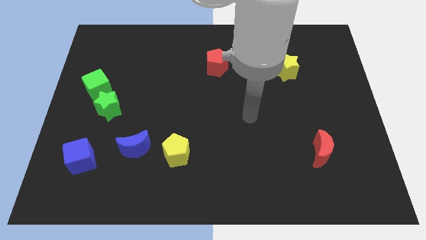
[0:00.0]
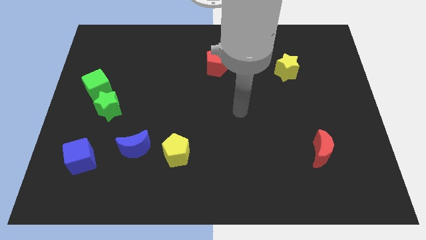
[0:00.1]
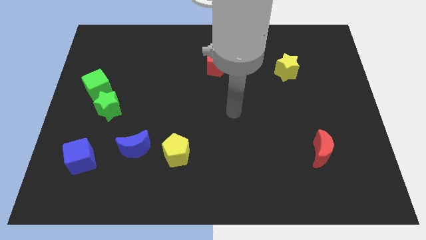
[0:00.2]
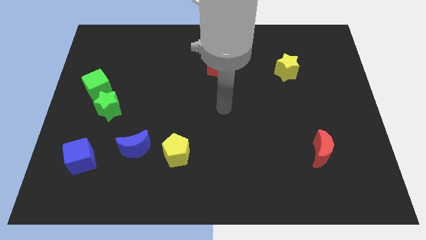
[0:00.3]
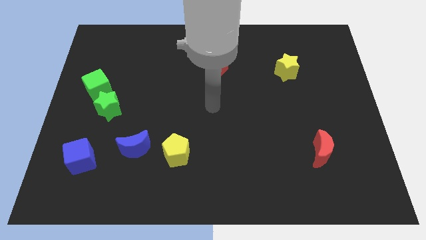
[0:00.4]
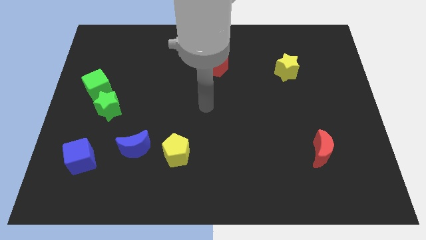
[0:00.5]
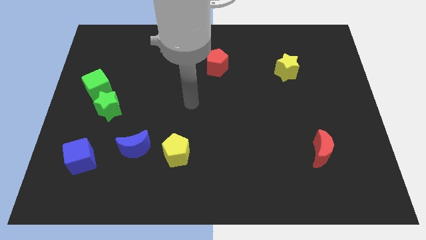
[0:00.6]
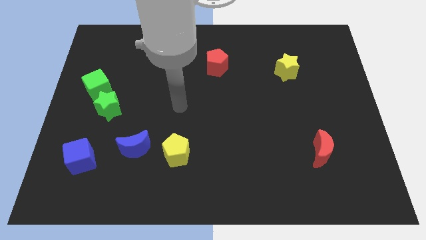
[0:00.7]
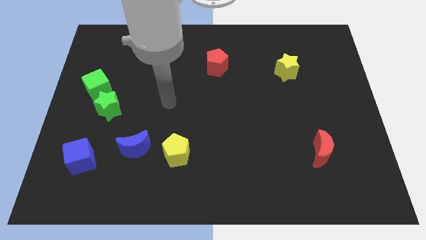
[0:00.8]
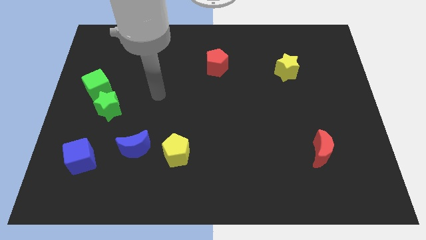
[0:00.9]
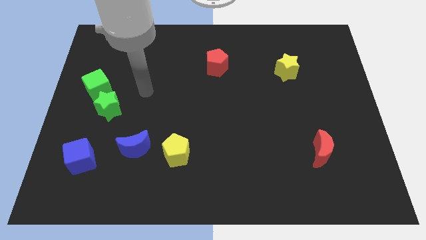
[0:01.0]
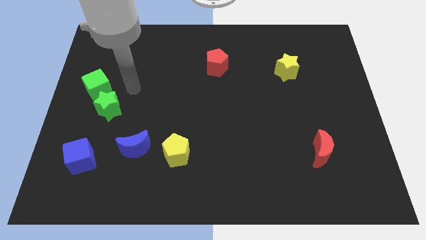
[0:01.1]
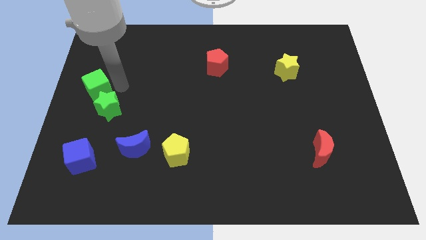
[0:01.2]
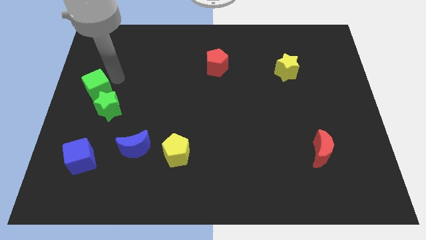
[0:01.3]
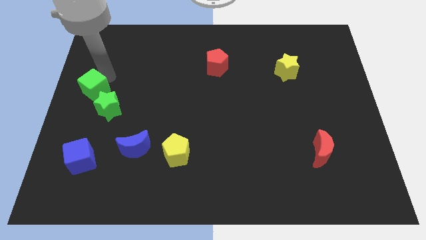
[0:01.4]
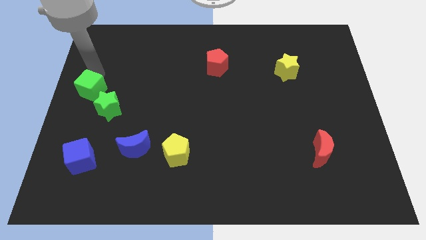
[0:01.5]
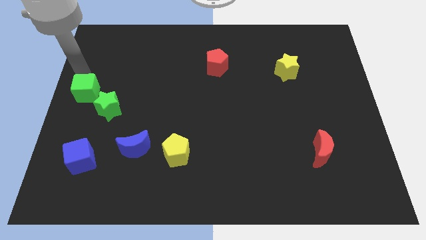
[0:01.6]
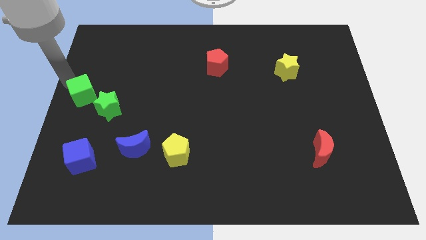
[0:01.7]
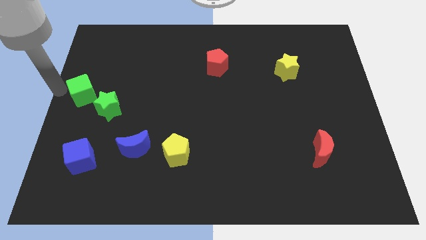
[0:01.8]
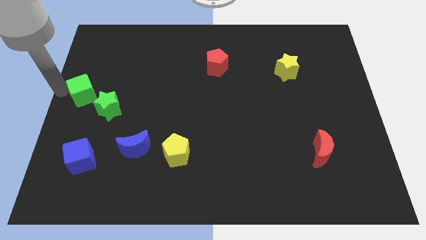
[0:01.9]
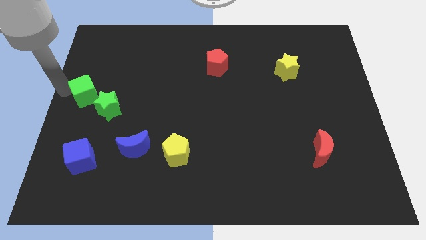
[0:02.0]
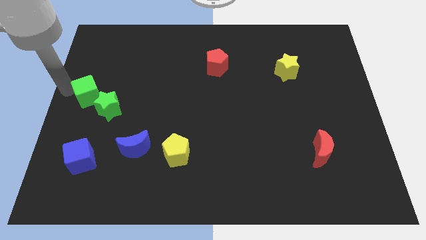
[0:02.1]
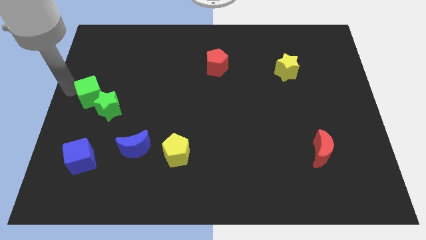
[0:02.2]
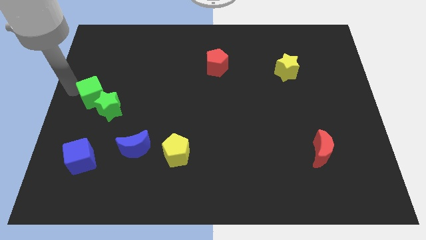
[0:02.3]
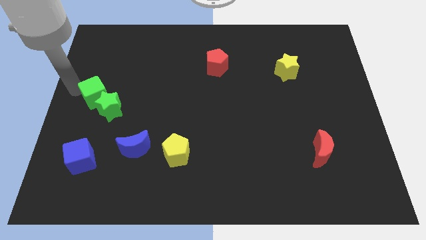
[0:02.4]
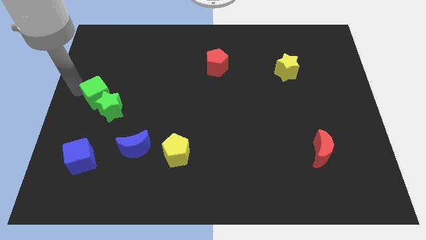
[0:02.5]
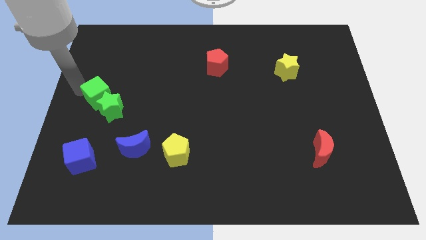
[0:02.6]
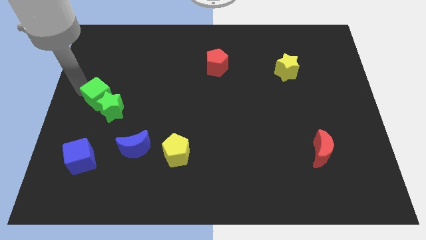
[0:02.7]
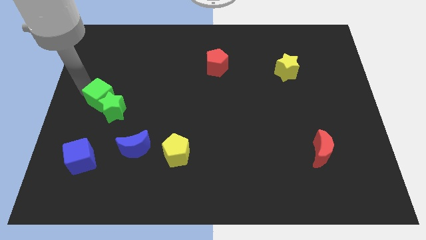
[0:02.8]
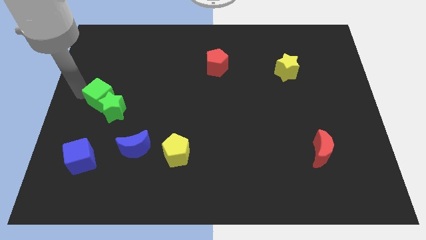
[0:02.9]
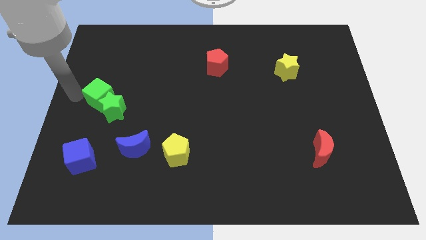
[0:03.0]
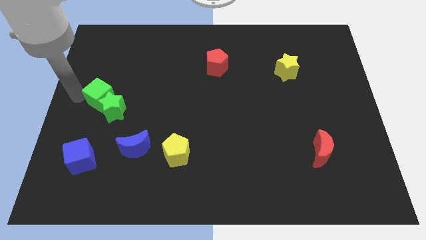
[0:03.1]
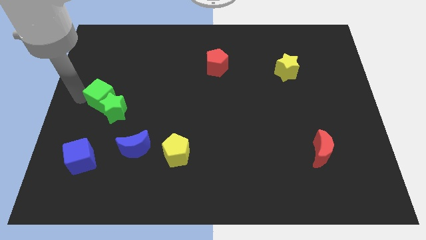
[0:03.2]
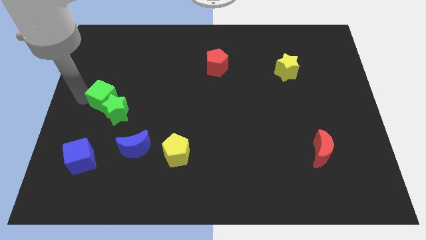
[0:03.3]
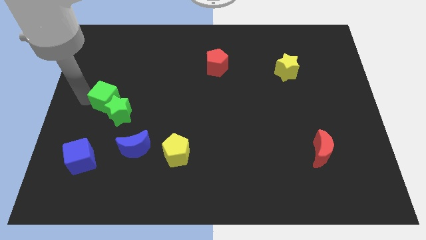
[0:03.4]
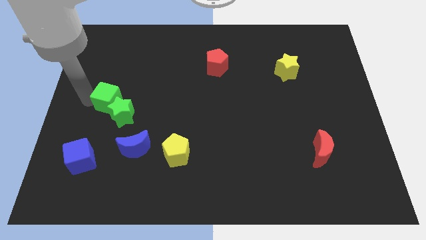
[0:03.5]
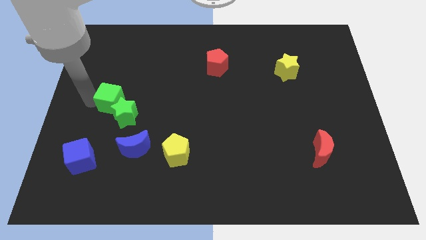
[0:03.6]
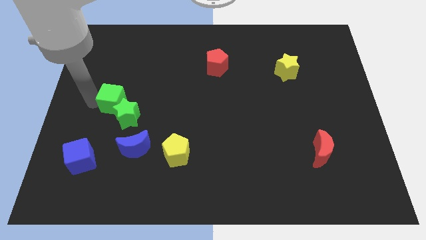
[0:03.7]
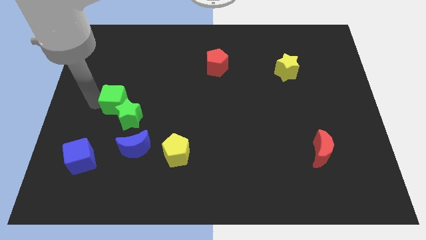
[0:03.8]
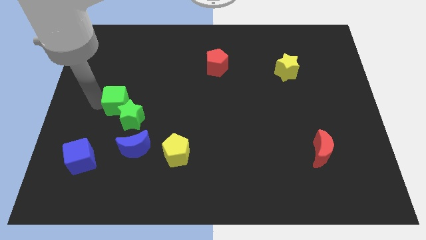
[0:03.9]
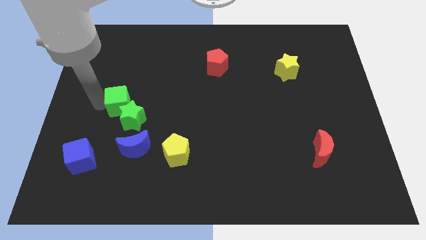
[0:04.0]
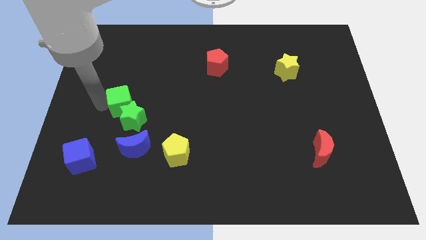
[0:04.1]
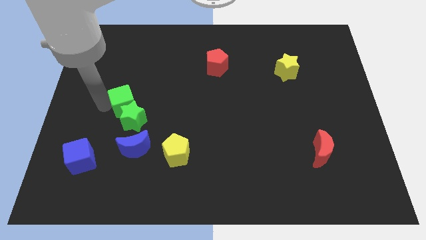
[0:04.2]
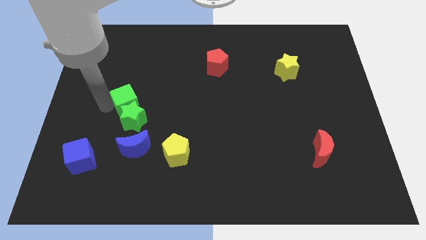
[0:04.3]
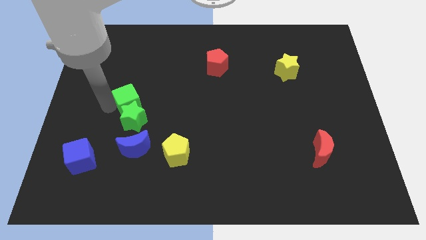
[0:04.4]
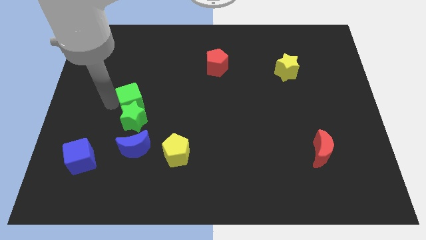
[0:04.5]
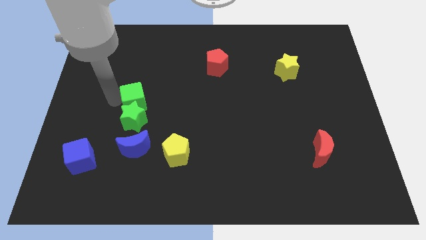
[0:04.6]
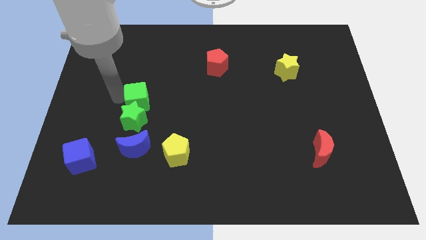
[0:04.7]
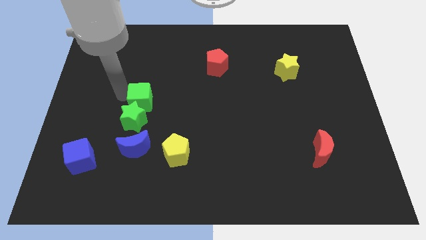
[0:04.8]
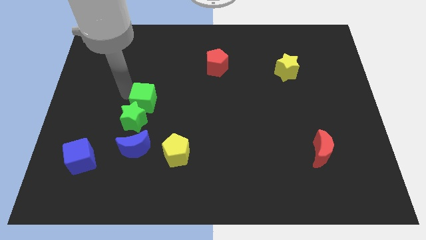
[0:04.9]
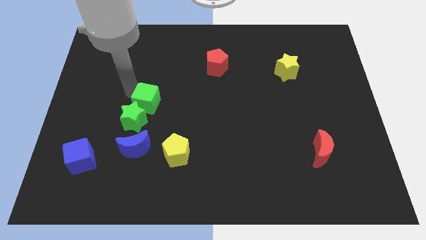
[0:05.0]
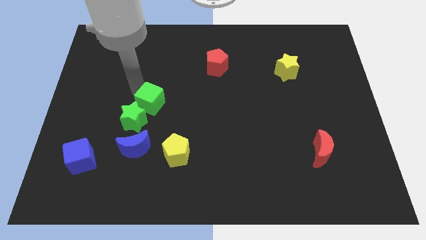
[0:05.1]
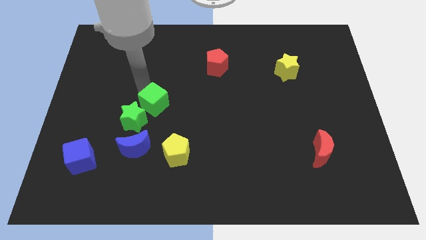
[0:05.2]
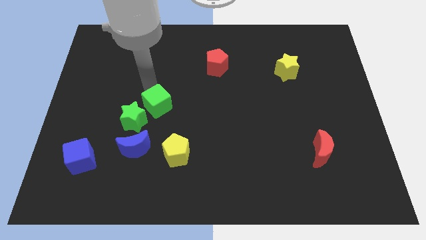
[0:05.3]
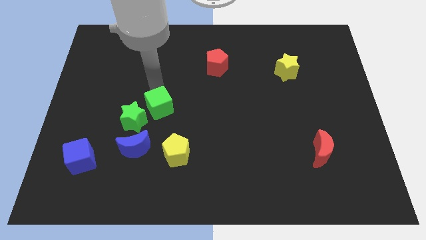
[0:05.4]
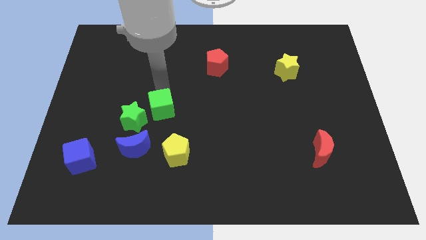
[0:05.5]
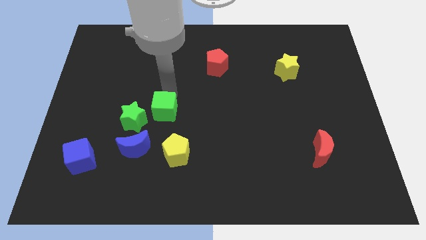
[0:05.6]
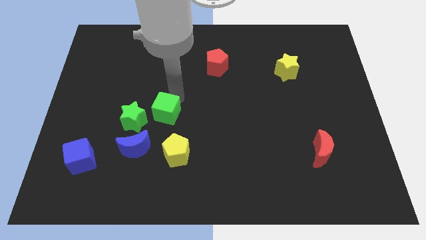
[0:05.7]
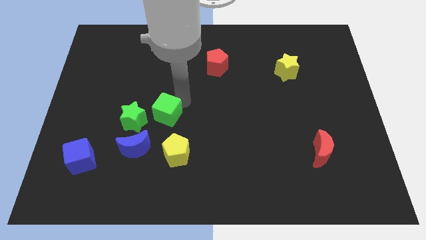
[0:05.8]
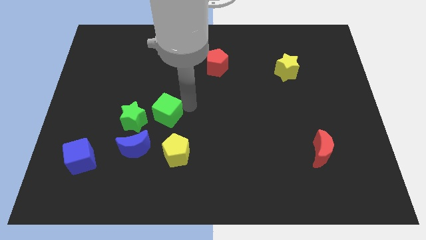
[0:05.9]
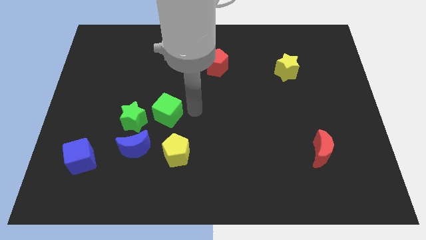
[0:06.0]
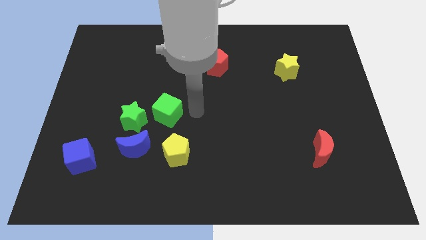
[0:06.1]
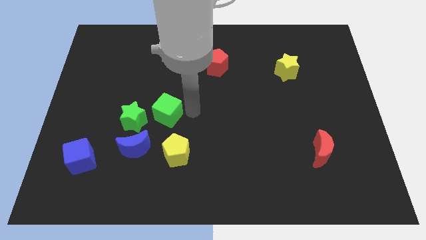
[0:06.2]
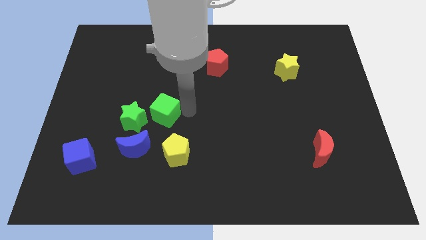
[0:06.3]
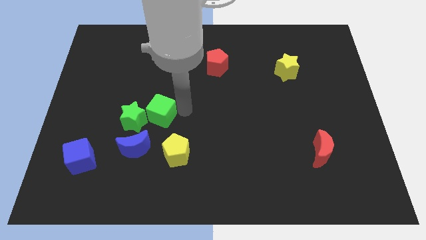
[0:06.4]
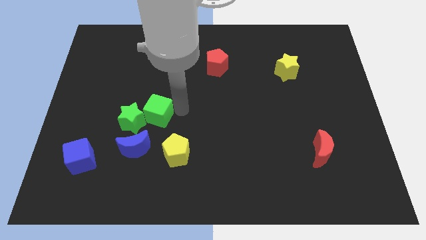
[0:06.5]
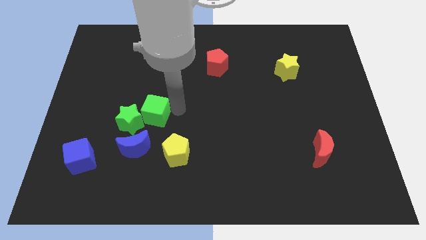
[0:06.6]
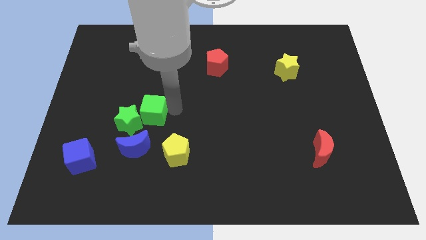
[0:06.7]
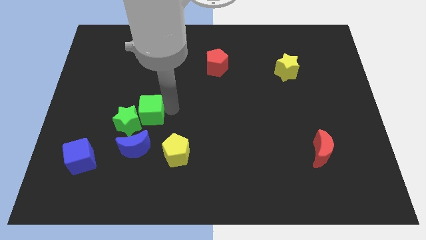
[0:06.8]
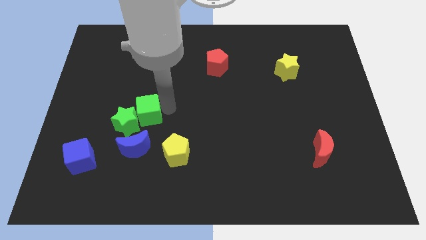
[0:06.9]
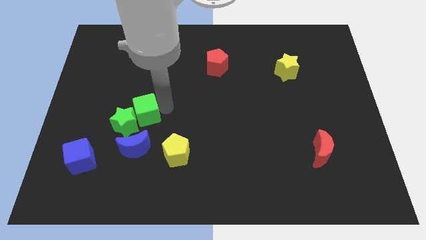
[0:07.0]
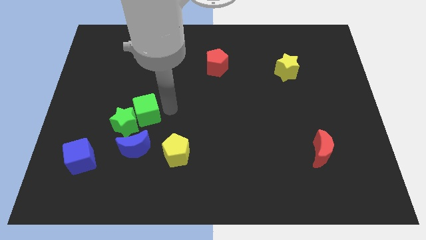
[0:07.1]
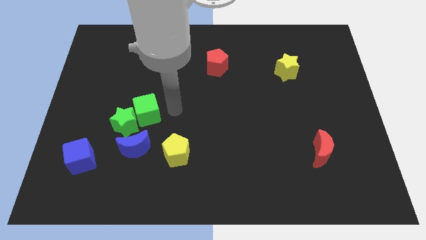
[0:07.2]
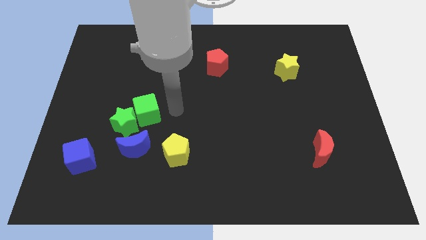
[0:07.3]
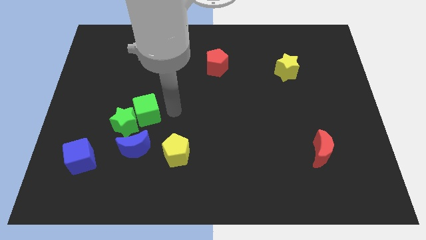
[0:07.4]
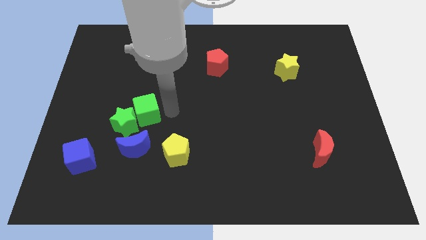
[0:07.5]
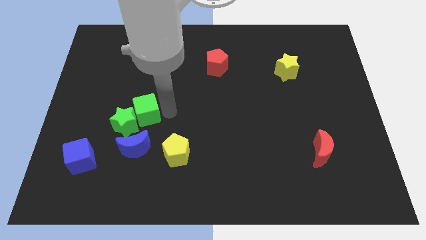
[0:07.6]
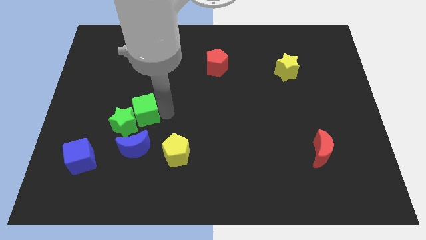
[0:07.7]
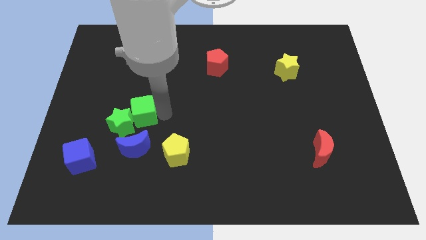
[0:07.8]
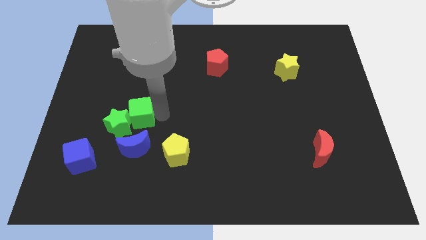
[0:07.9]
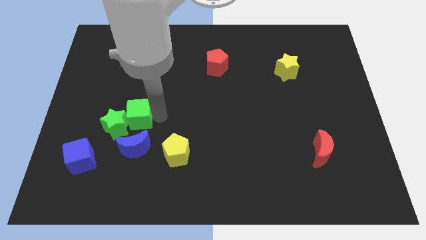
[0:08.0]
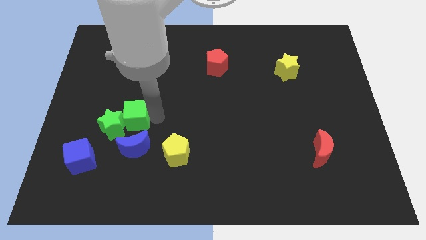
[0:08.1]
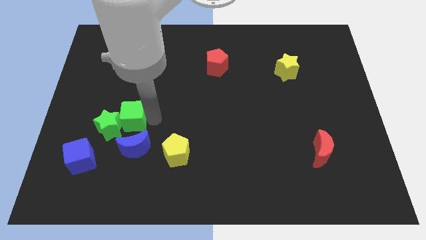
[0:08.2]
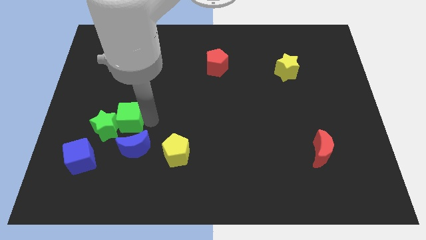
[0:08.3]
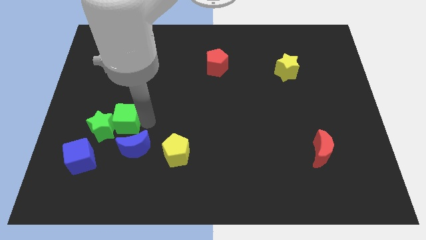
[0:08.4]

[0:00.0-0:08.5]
put the green cube to the bottom right of the green star
